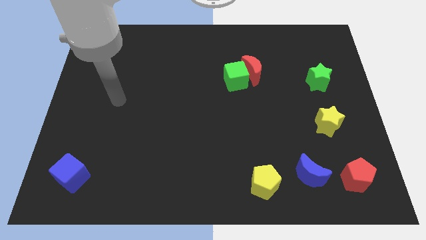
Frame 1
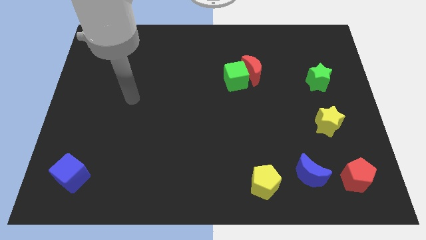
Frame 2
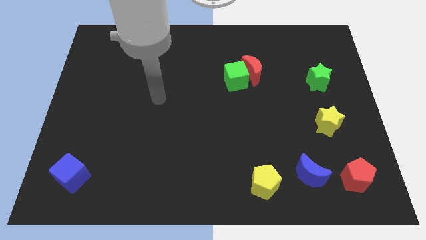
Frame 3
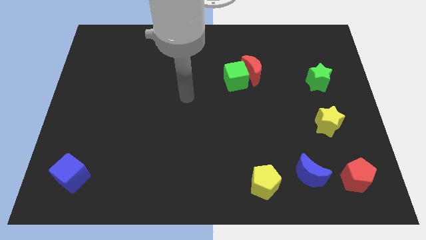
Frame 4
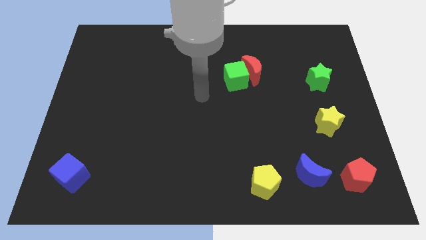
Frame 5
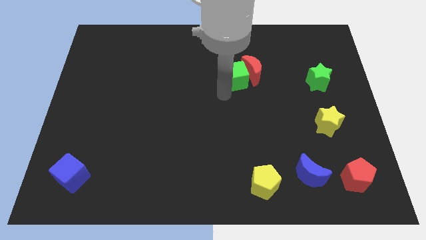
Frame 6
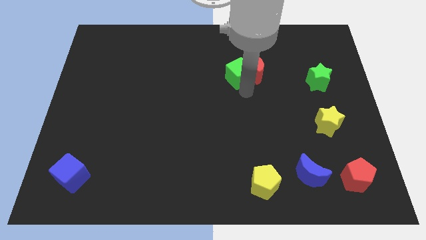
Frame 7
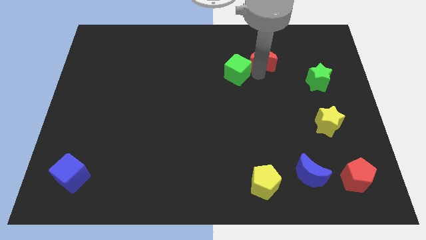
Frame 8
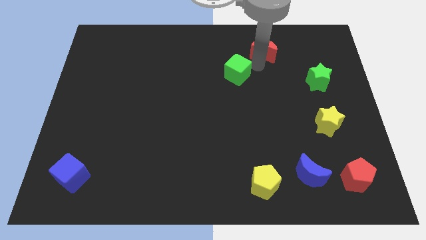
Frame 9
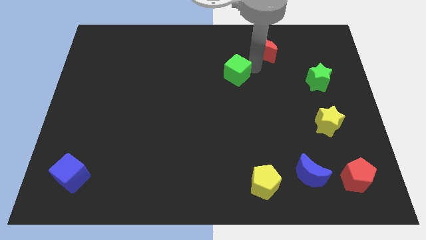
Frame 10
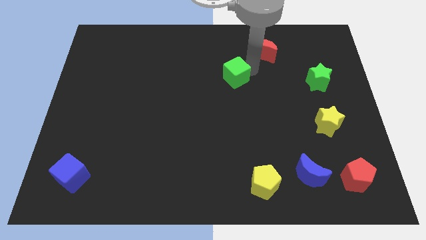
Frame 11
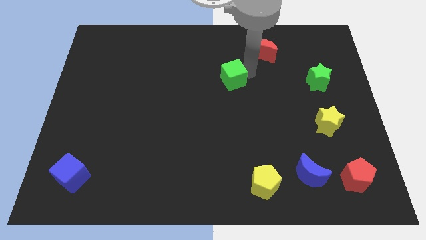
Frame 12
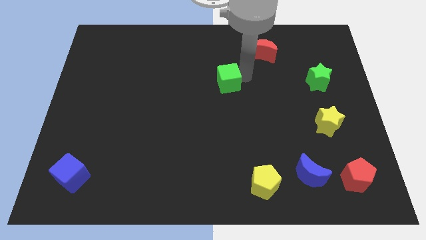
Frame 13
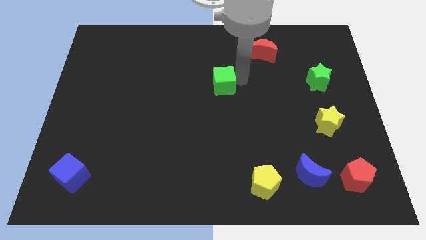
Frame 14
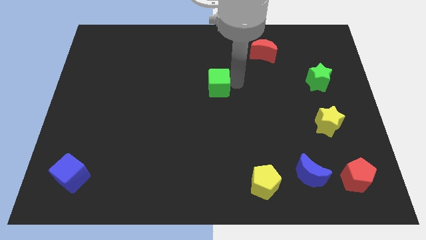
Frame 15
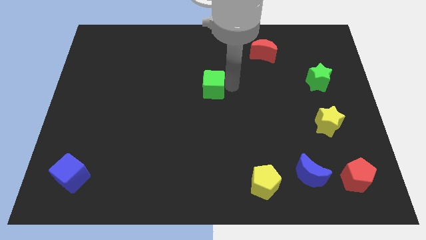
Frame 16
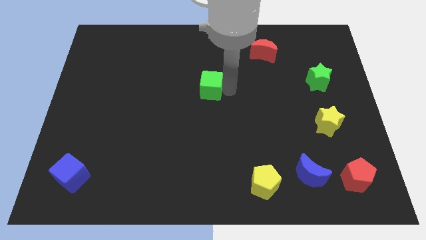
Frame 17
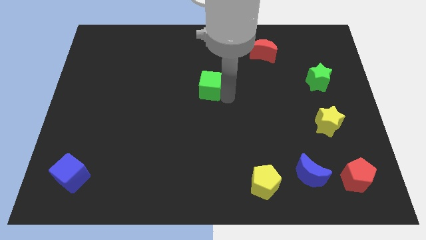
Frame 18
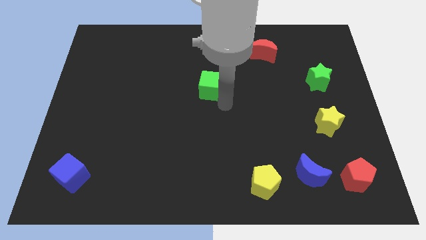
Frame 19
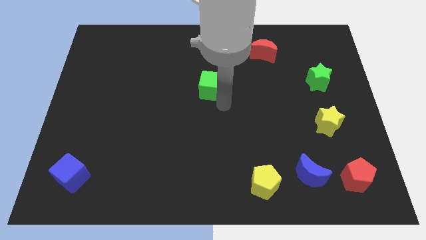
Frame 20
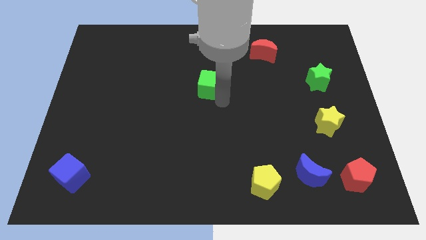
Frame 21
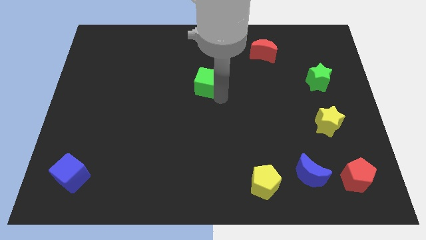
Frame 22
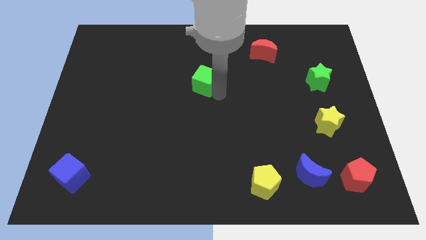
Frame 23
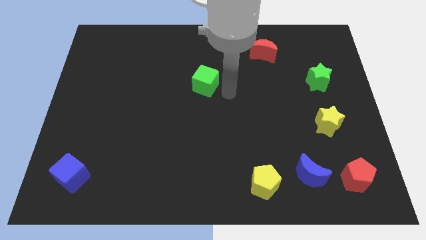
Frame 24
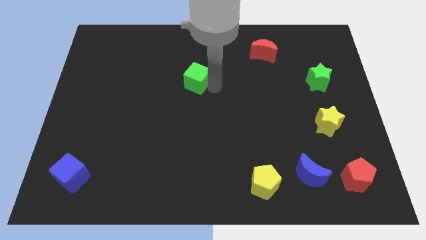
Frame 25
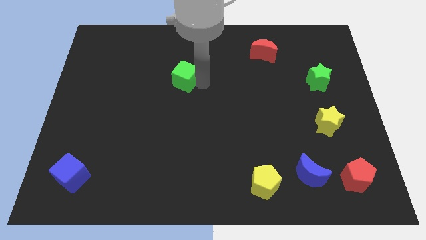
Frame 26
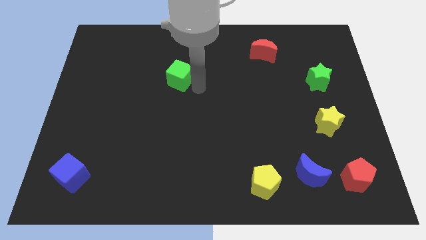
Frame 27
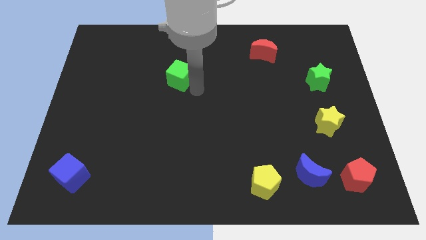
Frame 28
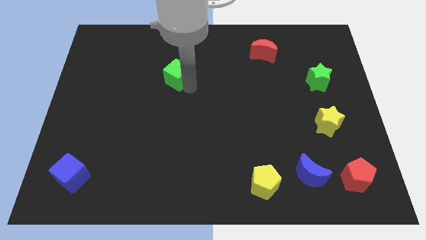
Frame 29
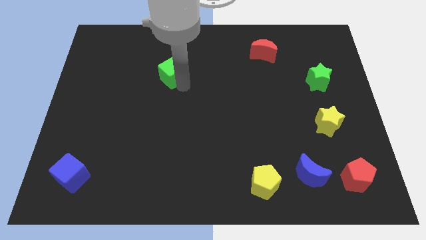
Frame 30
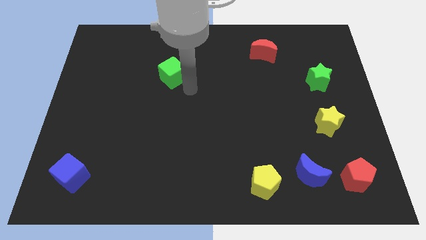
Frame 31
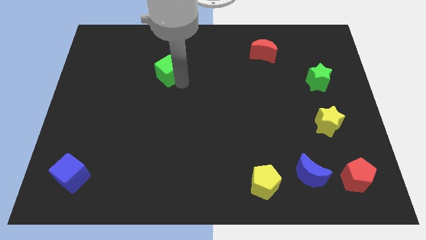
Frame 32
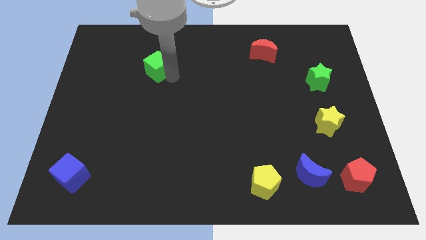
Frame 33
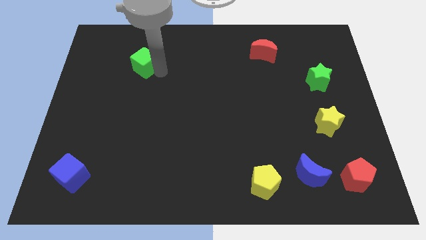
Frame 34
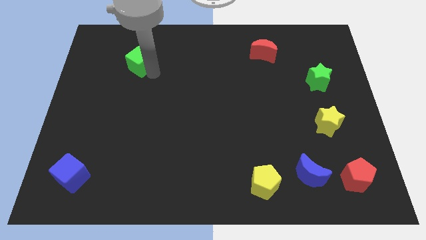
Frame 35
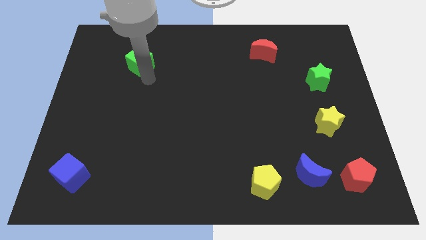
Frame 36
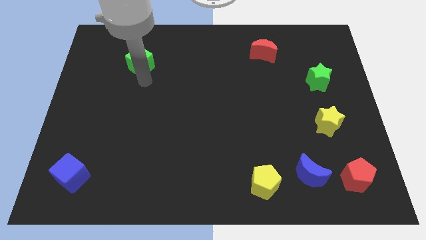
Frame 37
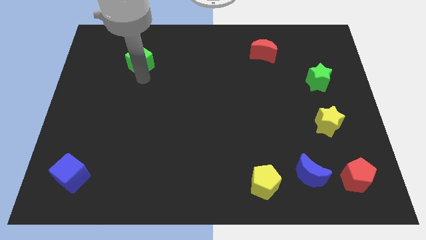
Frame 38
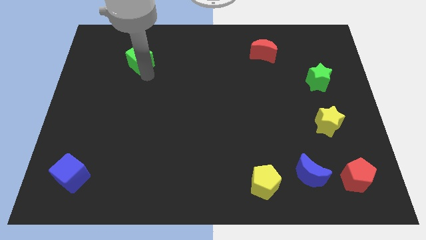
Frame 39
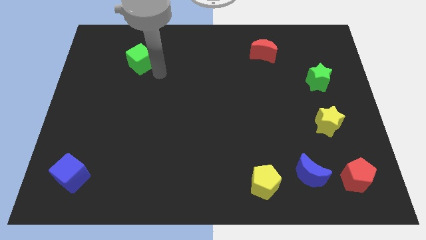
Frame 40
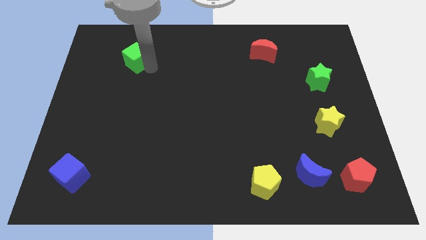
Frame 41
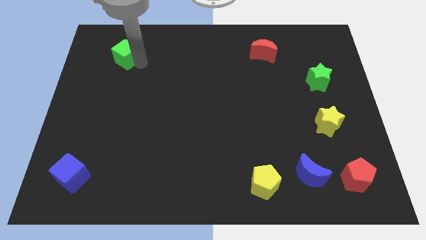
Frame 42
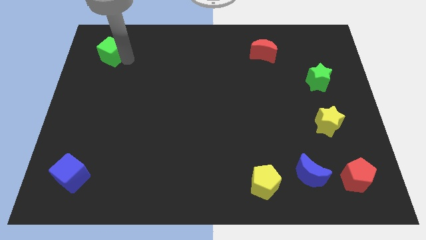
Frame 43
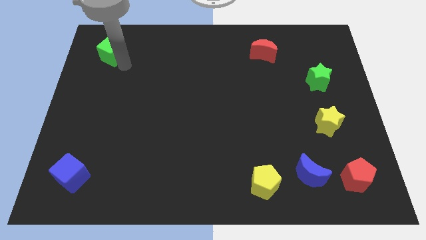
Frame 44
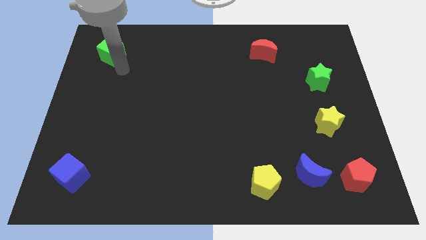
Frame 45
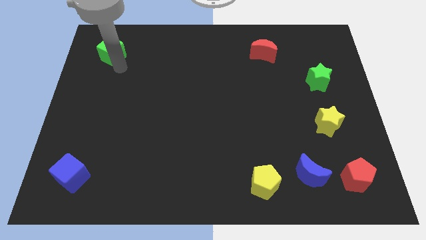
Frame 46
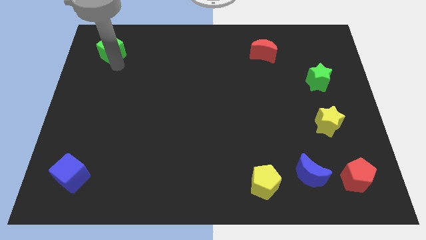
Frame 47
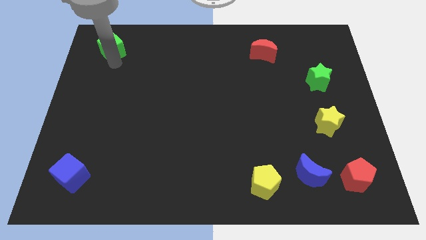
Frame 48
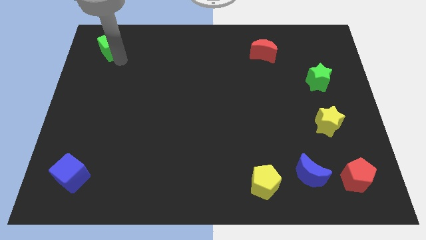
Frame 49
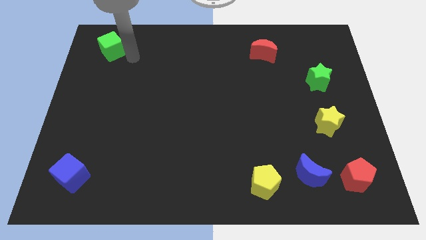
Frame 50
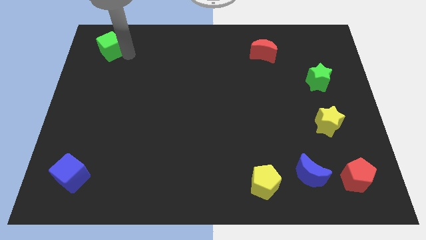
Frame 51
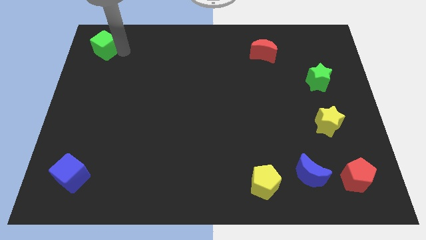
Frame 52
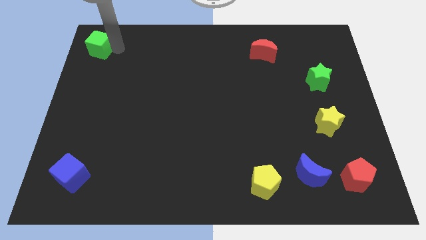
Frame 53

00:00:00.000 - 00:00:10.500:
slide the green cube to the top left corner
